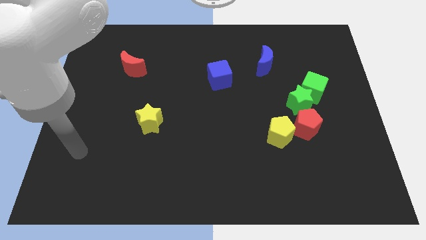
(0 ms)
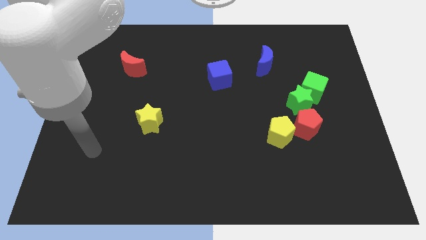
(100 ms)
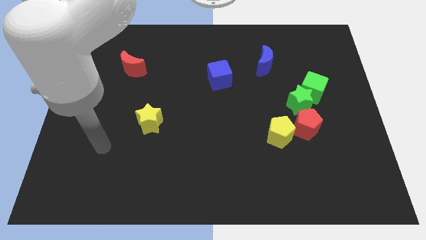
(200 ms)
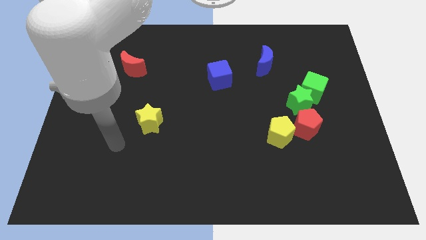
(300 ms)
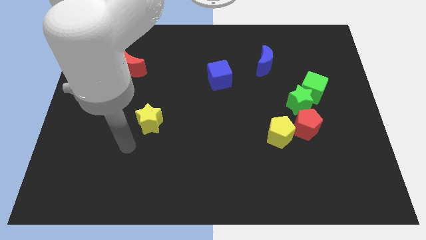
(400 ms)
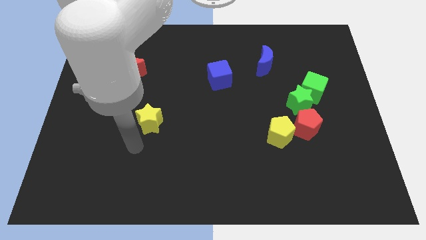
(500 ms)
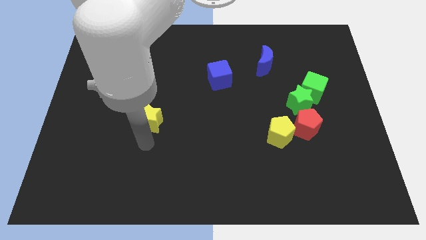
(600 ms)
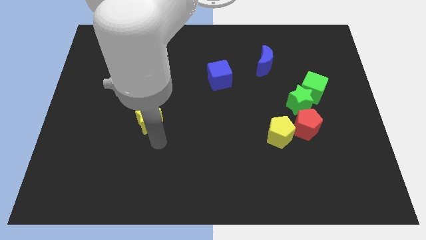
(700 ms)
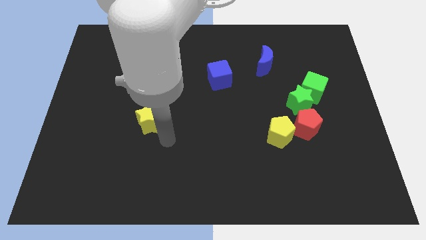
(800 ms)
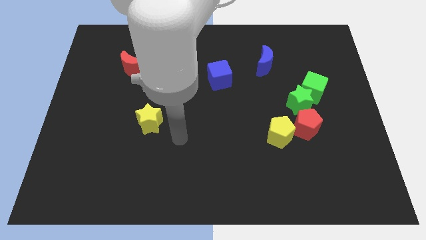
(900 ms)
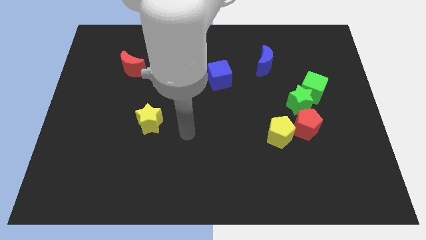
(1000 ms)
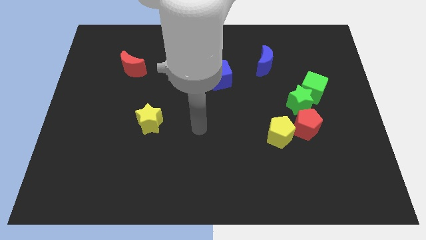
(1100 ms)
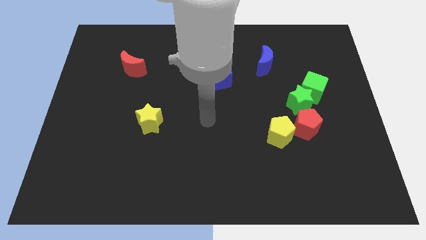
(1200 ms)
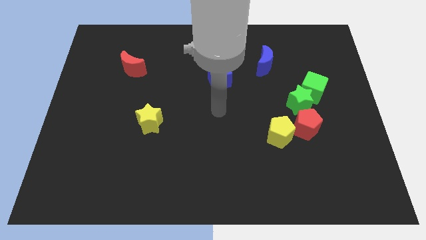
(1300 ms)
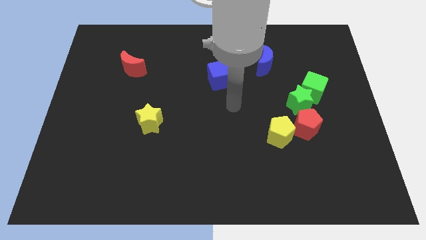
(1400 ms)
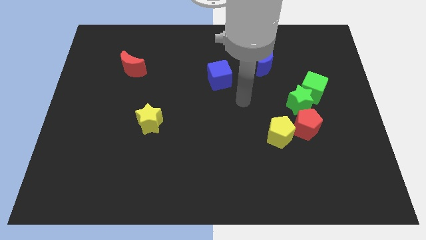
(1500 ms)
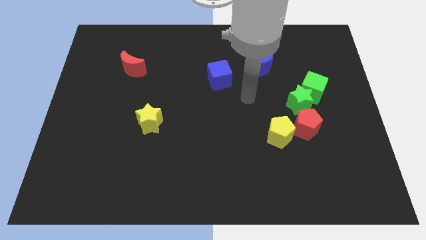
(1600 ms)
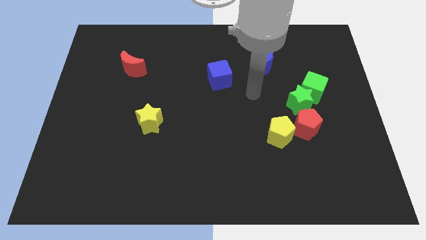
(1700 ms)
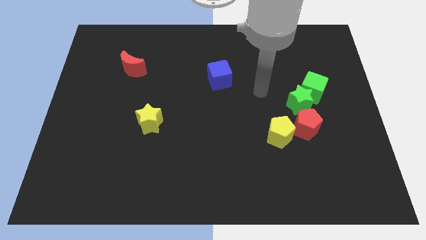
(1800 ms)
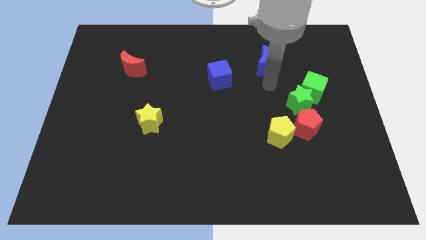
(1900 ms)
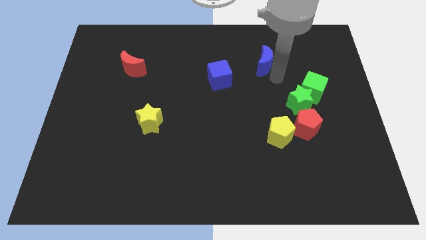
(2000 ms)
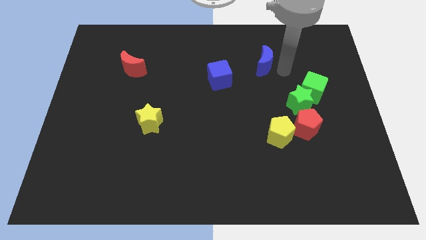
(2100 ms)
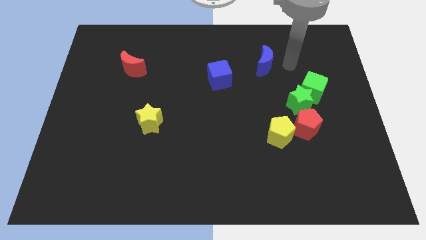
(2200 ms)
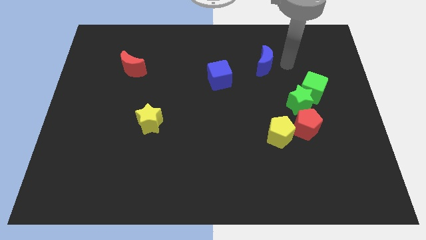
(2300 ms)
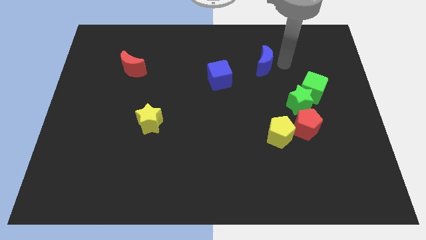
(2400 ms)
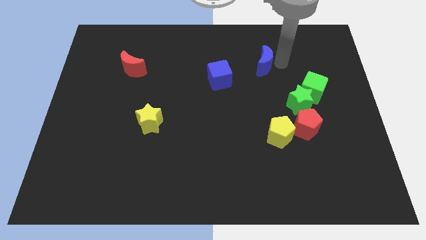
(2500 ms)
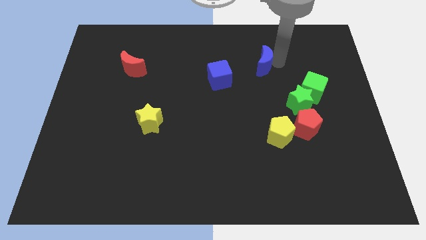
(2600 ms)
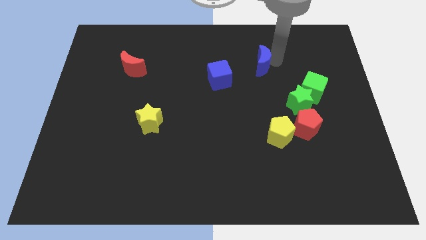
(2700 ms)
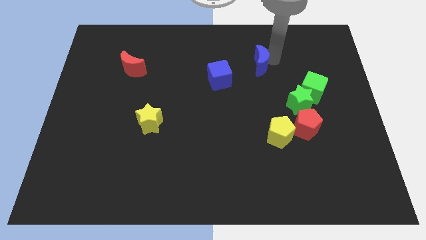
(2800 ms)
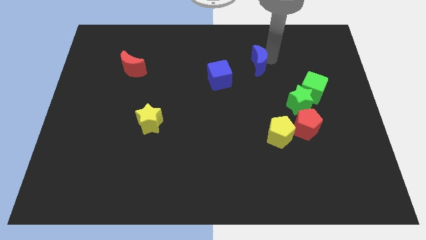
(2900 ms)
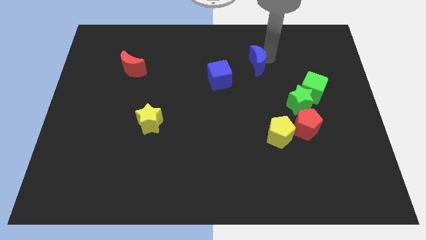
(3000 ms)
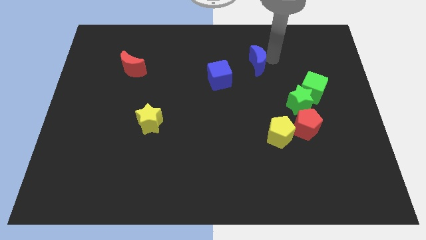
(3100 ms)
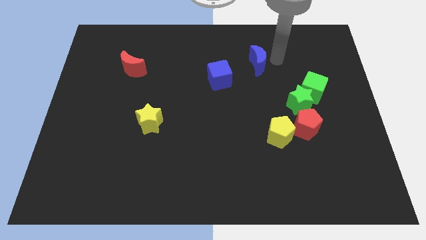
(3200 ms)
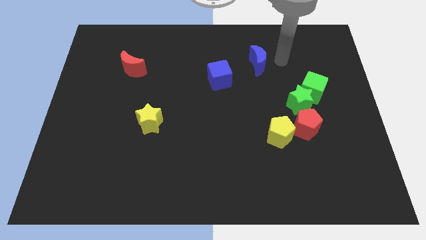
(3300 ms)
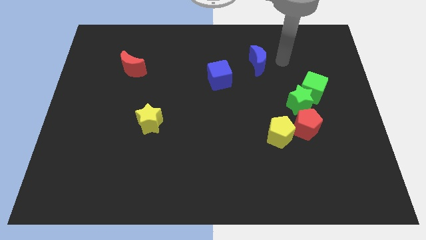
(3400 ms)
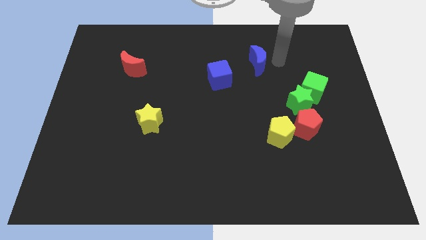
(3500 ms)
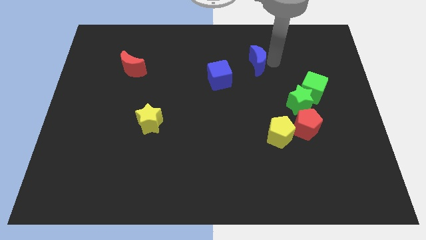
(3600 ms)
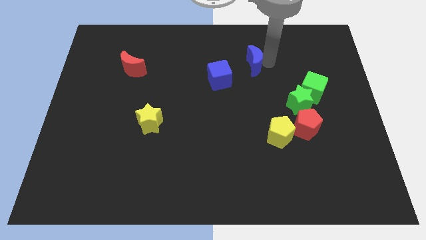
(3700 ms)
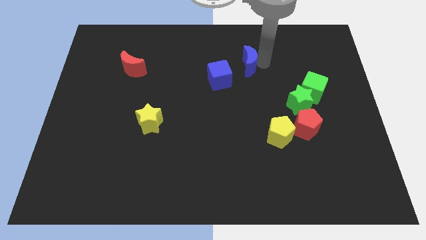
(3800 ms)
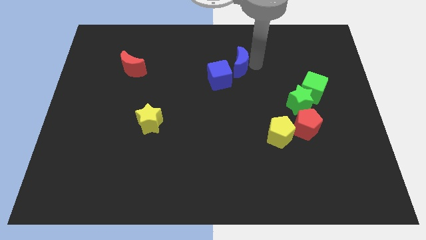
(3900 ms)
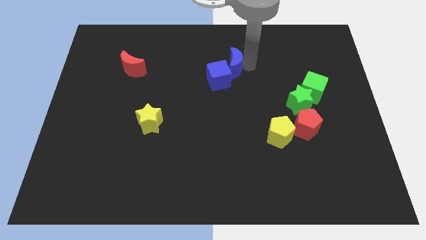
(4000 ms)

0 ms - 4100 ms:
slightly move the blue moon left

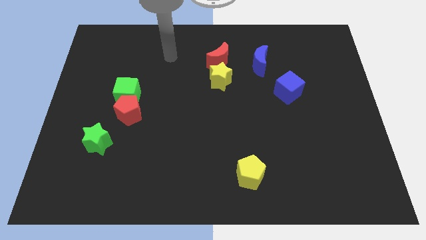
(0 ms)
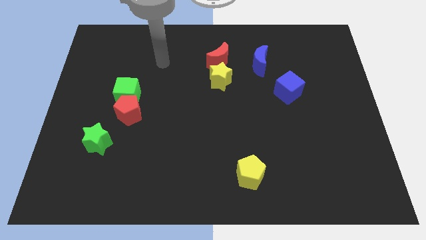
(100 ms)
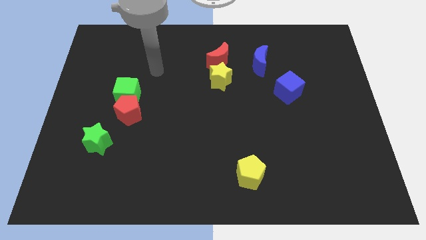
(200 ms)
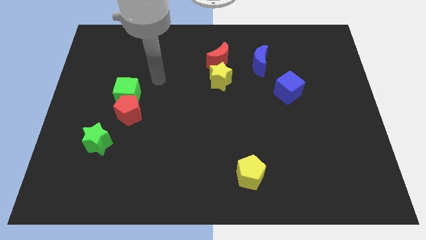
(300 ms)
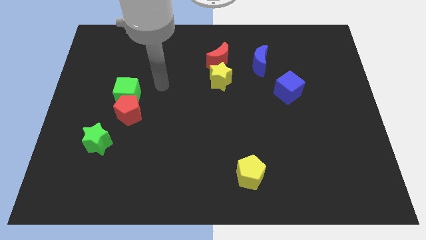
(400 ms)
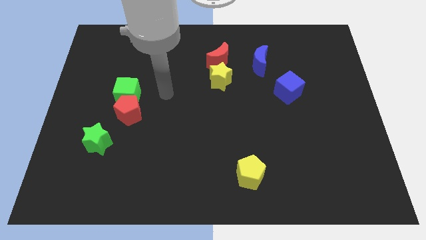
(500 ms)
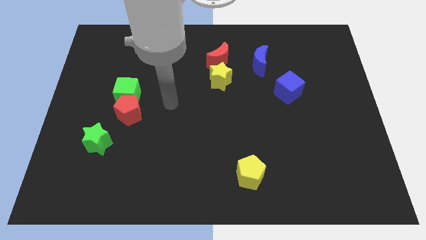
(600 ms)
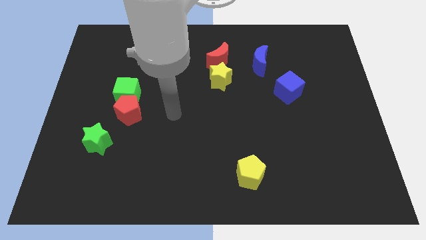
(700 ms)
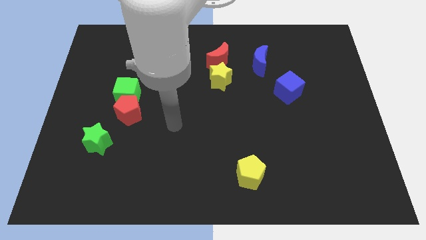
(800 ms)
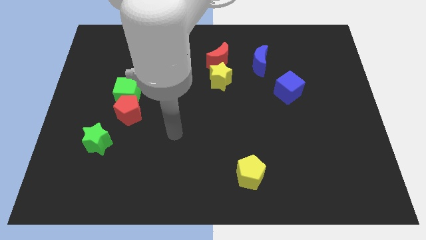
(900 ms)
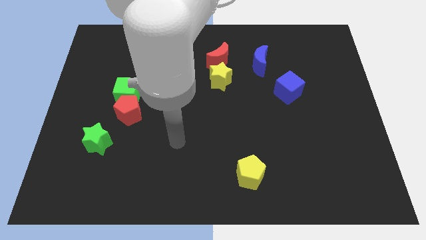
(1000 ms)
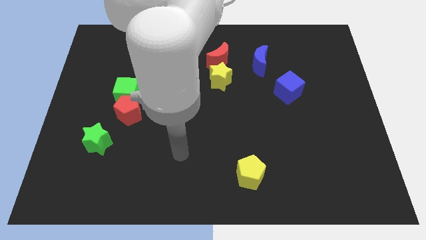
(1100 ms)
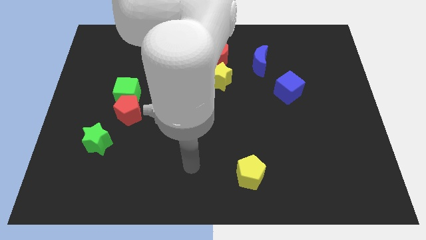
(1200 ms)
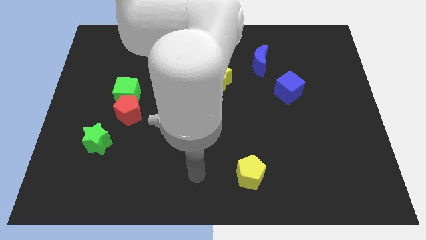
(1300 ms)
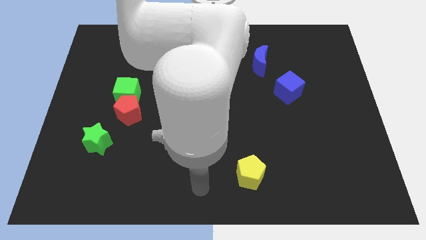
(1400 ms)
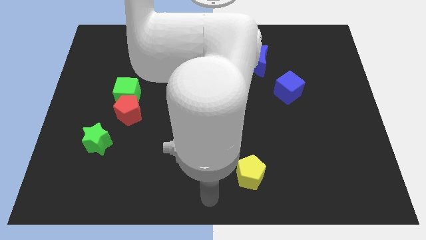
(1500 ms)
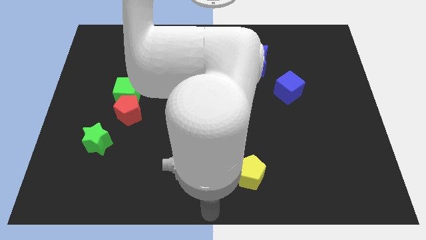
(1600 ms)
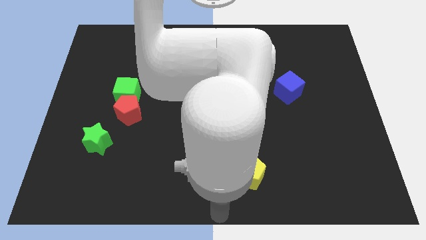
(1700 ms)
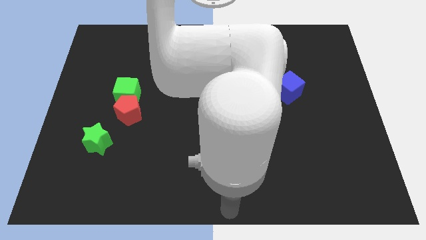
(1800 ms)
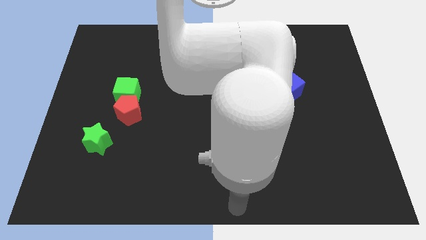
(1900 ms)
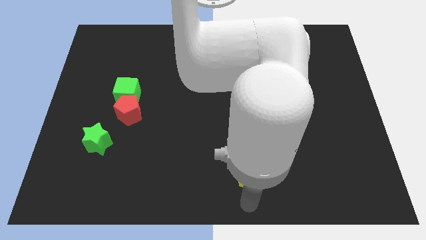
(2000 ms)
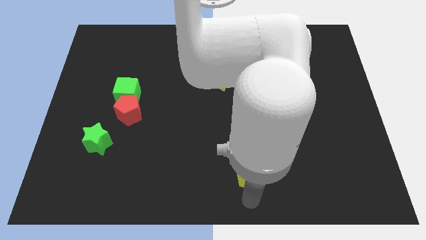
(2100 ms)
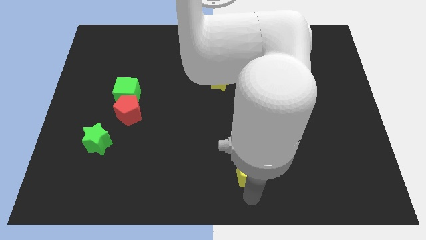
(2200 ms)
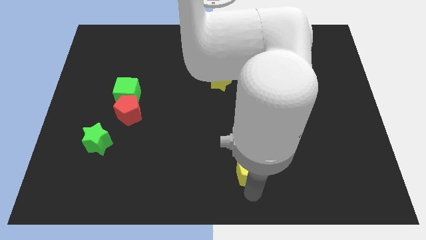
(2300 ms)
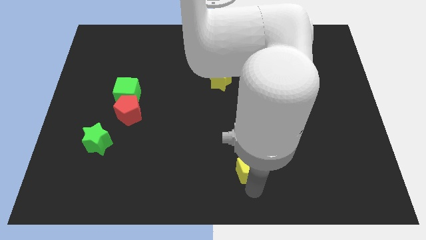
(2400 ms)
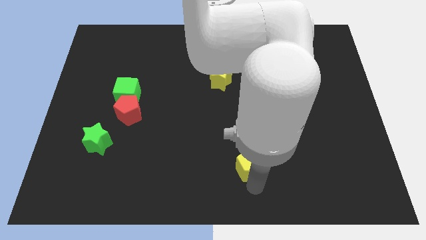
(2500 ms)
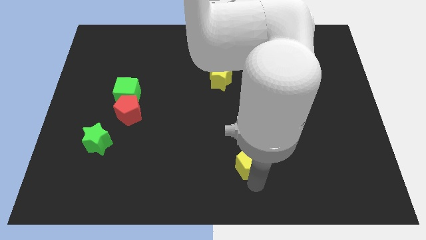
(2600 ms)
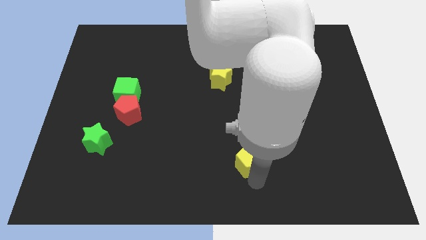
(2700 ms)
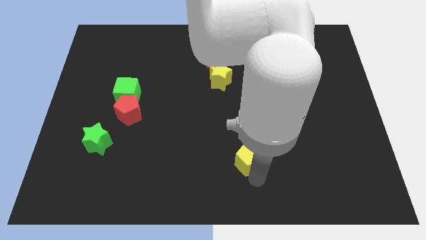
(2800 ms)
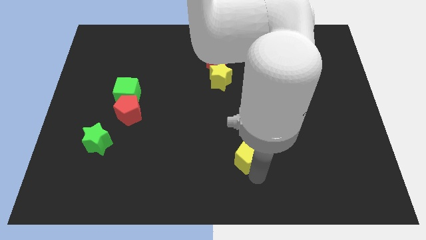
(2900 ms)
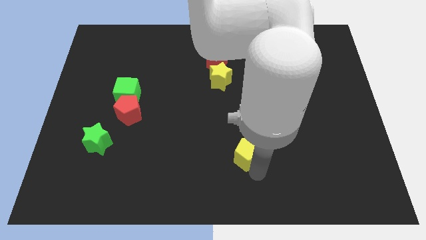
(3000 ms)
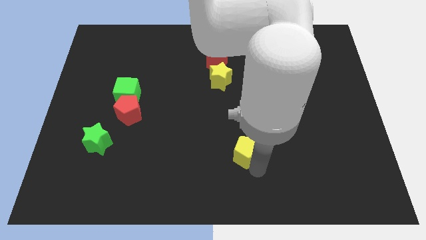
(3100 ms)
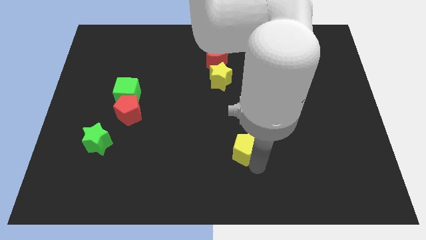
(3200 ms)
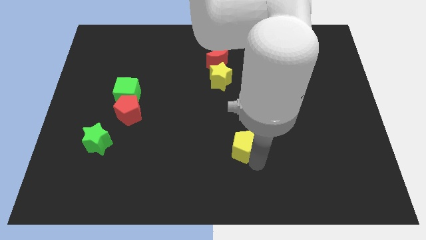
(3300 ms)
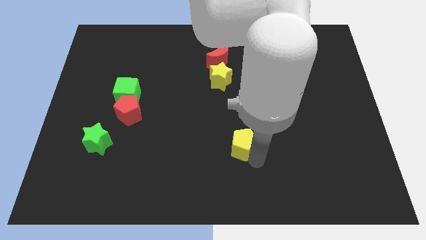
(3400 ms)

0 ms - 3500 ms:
slightly push the yellow pentagon upwards
